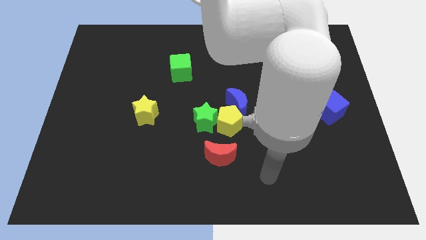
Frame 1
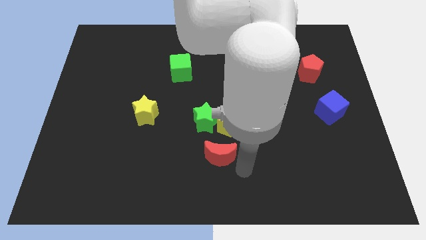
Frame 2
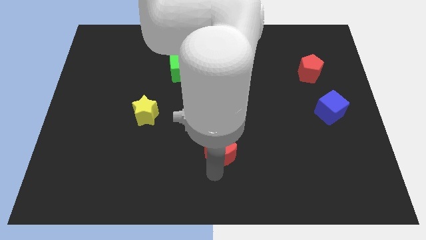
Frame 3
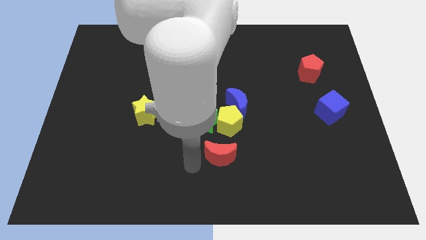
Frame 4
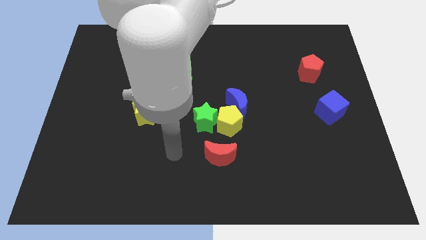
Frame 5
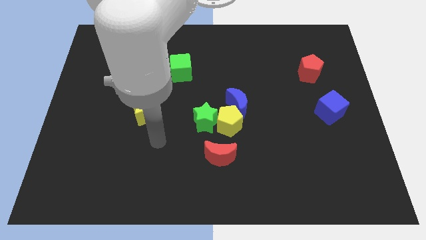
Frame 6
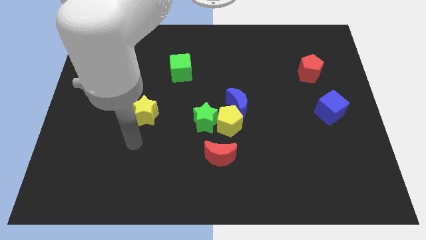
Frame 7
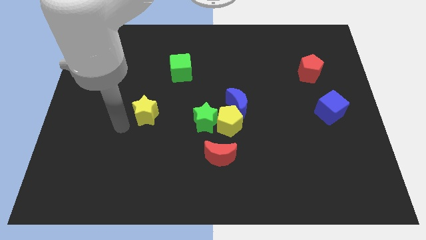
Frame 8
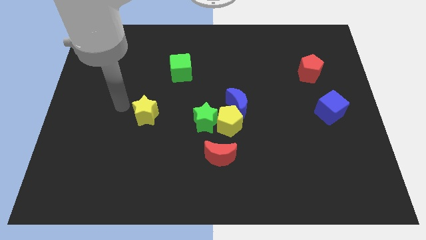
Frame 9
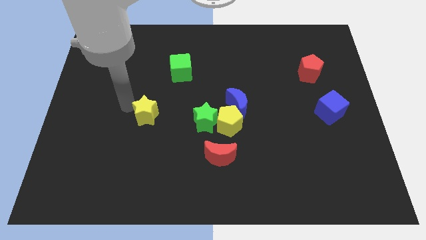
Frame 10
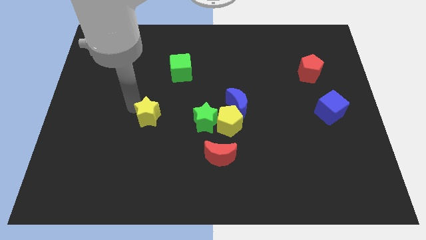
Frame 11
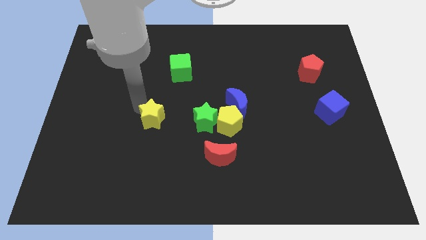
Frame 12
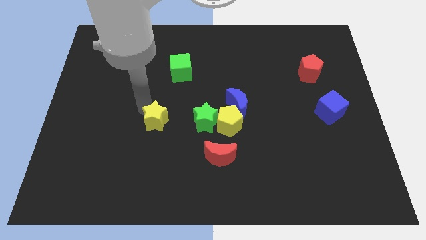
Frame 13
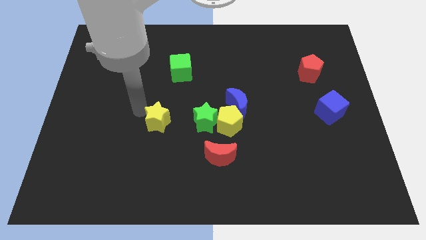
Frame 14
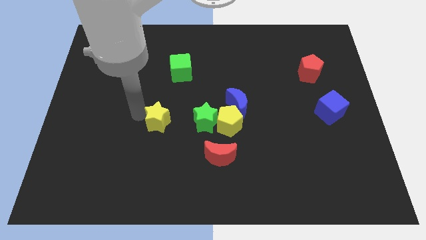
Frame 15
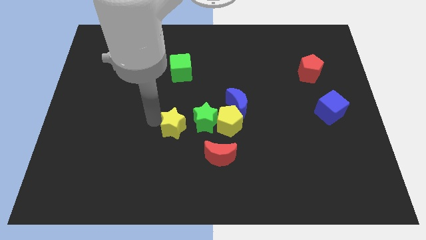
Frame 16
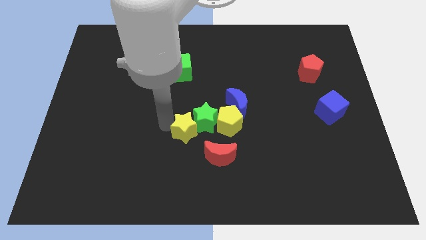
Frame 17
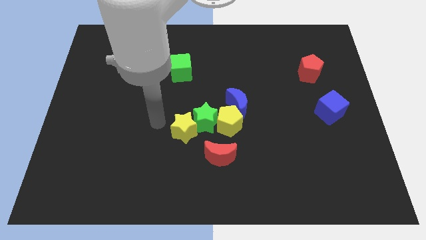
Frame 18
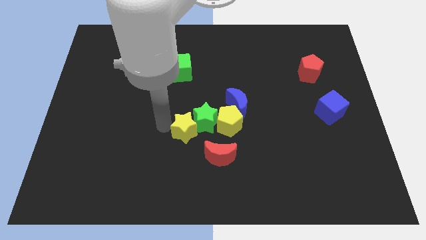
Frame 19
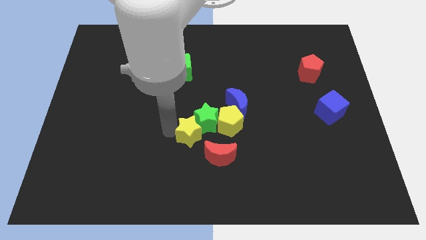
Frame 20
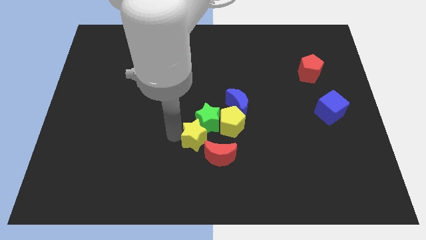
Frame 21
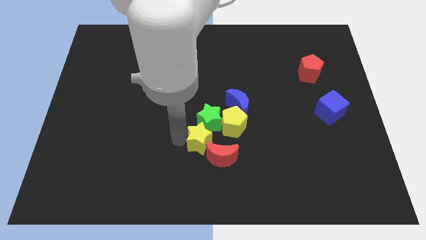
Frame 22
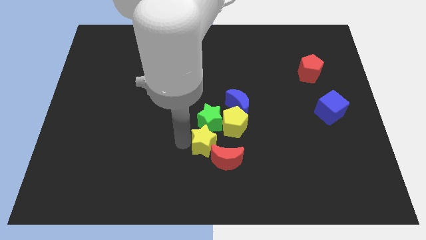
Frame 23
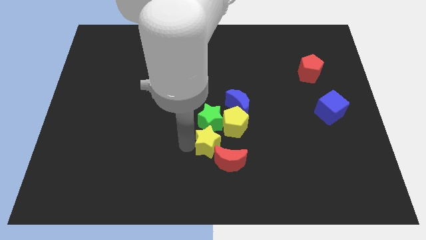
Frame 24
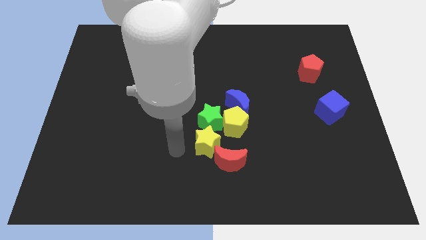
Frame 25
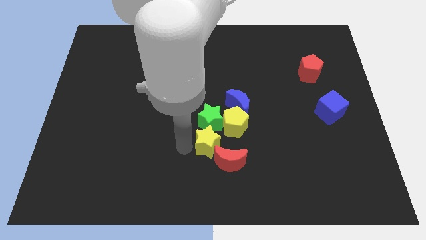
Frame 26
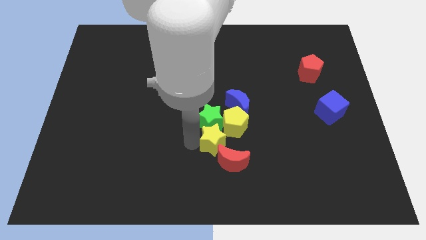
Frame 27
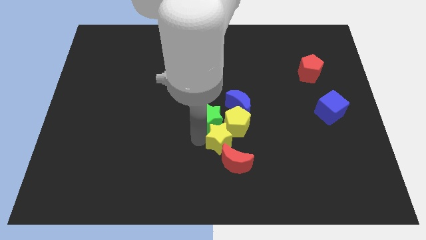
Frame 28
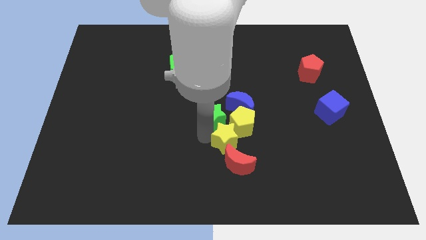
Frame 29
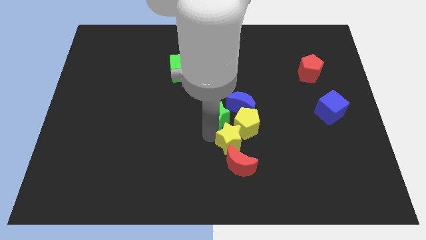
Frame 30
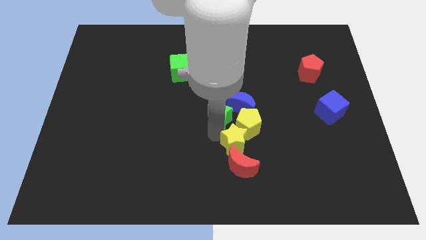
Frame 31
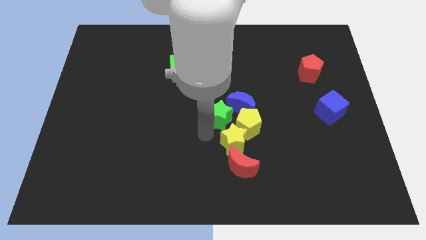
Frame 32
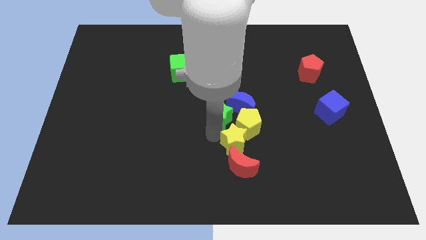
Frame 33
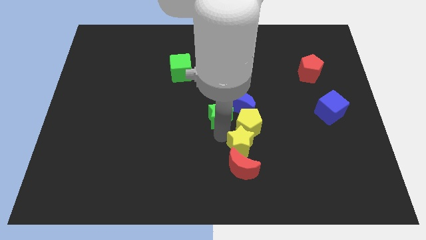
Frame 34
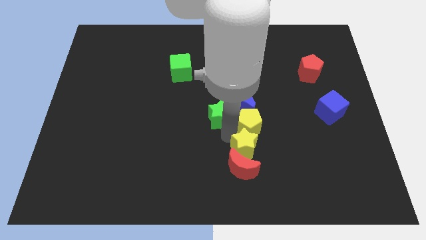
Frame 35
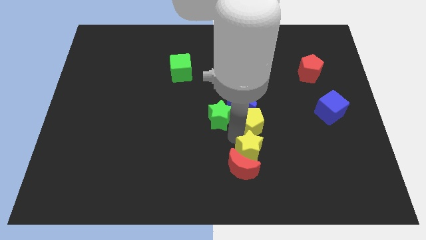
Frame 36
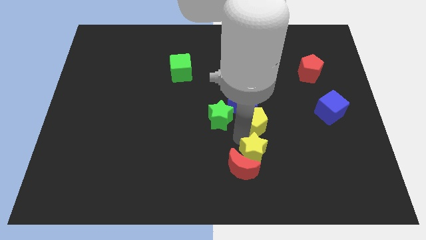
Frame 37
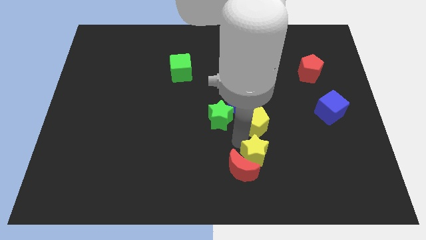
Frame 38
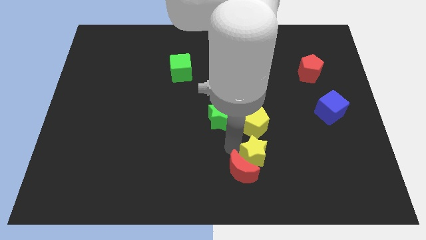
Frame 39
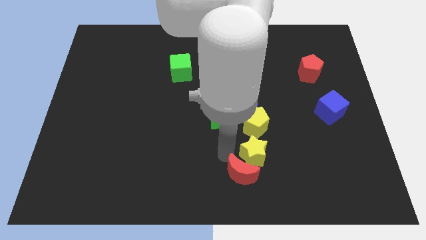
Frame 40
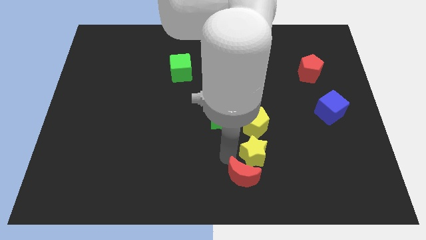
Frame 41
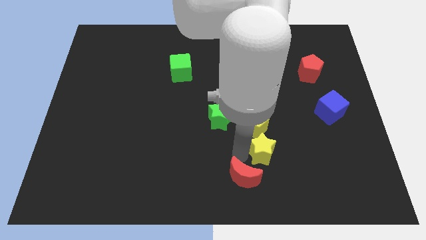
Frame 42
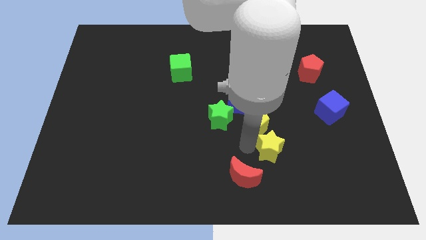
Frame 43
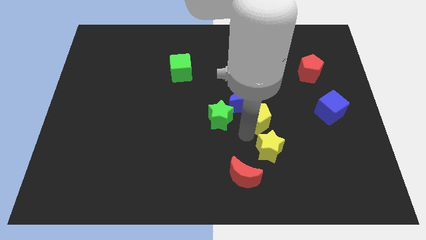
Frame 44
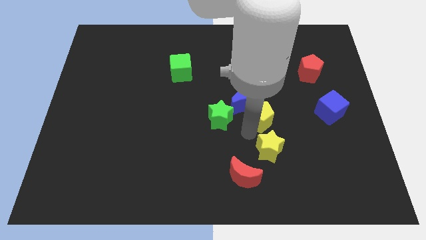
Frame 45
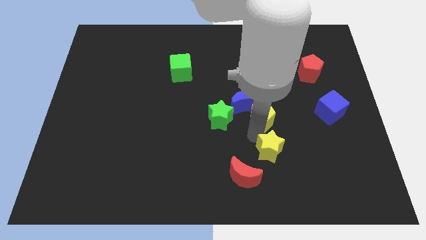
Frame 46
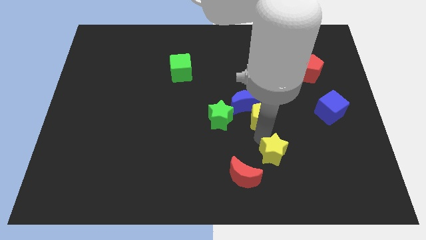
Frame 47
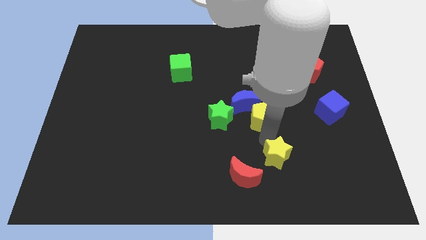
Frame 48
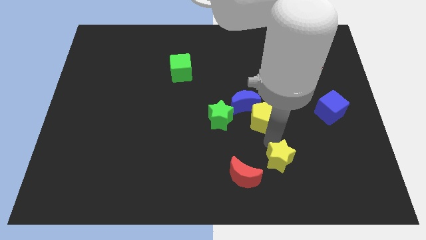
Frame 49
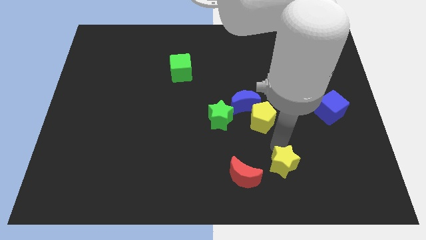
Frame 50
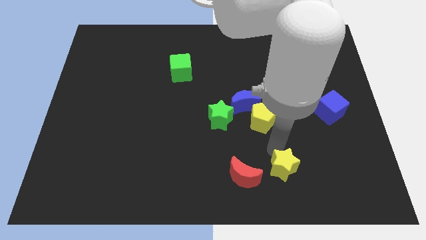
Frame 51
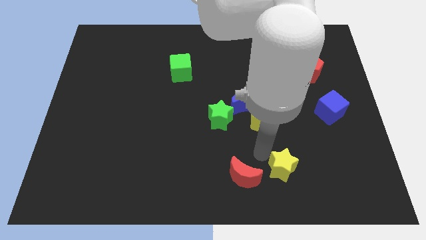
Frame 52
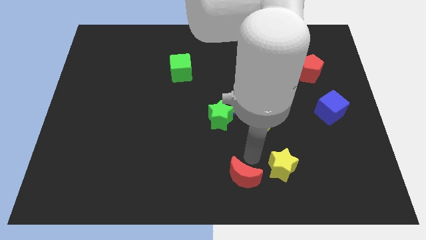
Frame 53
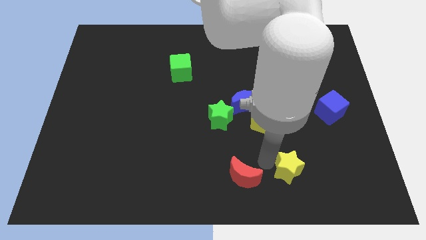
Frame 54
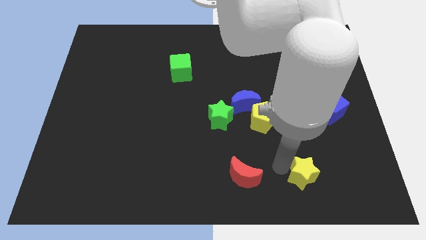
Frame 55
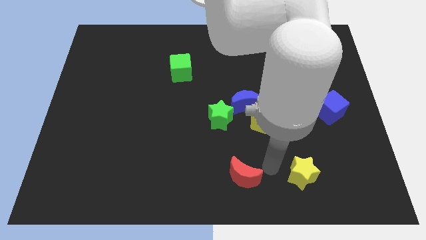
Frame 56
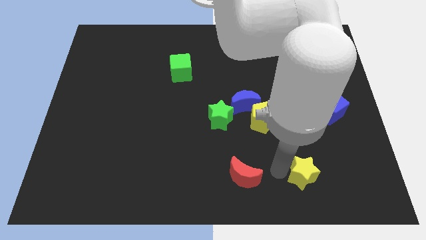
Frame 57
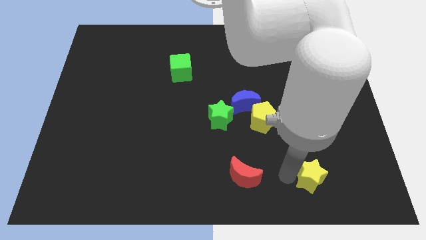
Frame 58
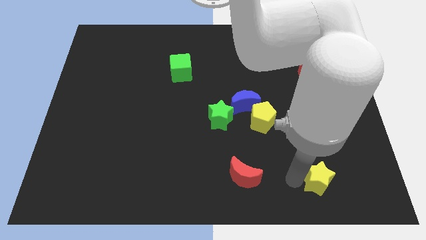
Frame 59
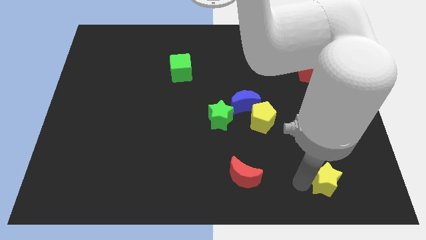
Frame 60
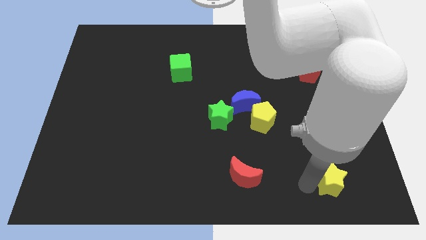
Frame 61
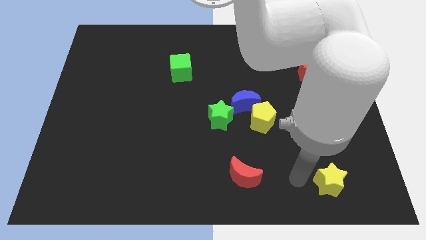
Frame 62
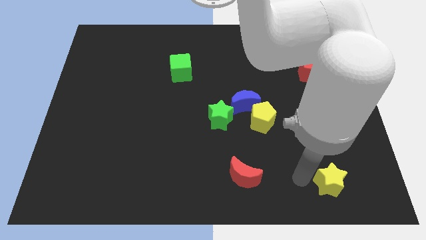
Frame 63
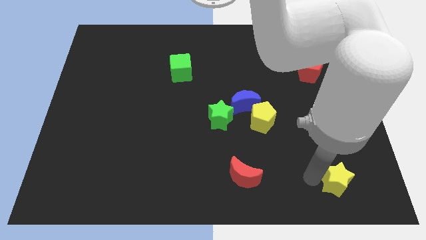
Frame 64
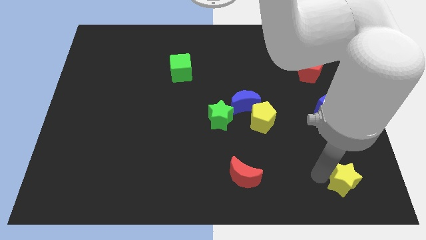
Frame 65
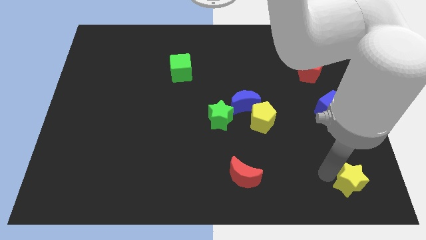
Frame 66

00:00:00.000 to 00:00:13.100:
move the yellow star to the lower right corner

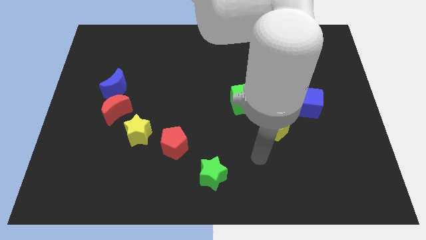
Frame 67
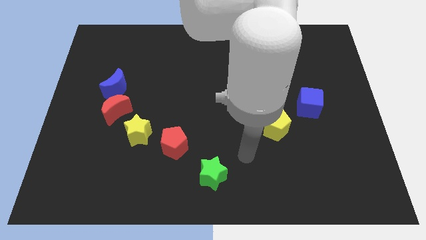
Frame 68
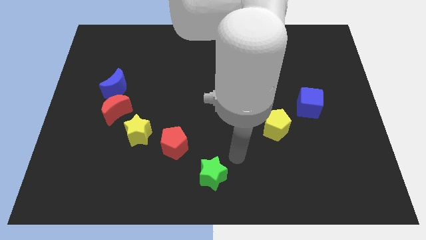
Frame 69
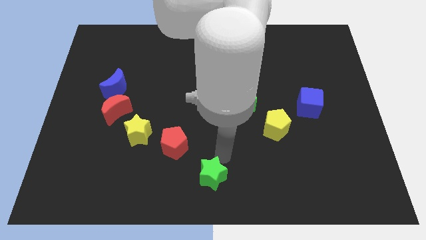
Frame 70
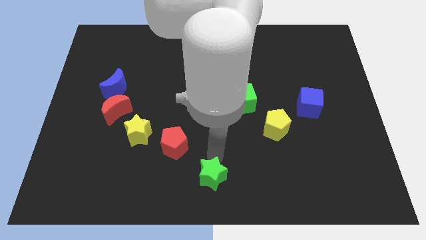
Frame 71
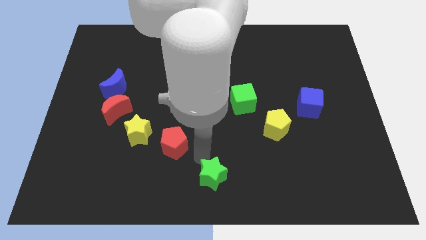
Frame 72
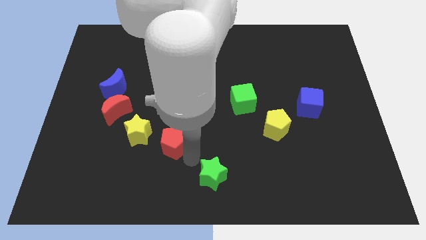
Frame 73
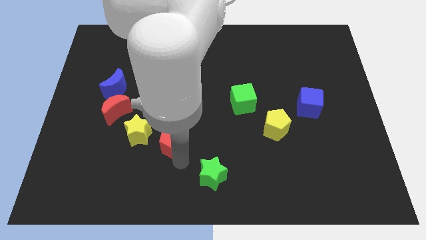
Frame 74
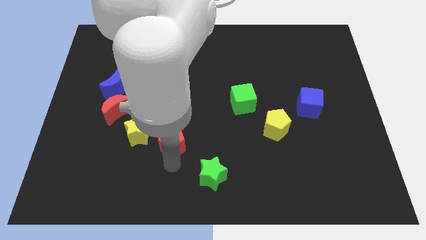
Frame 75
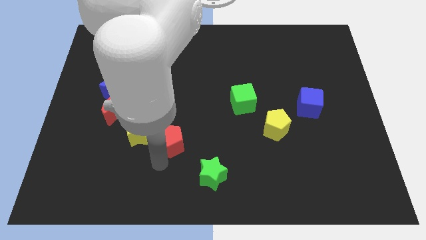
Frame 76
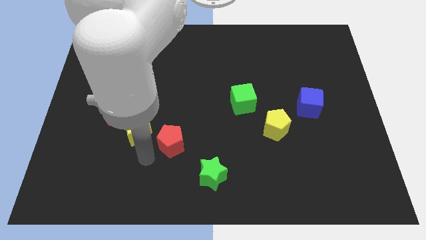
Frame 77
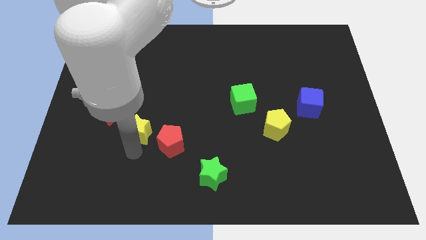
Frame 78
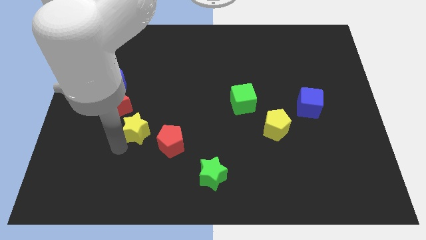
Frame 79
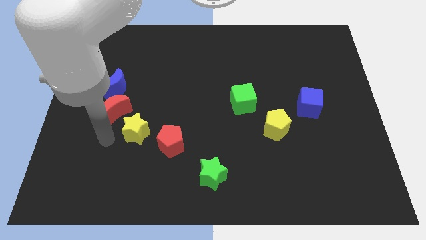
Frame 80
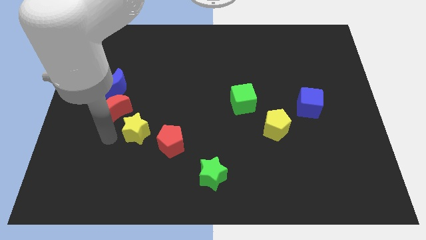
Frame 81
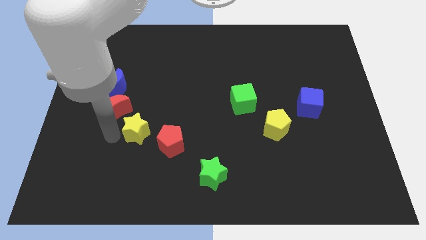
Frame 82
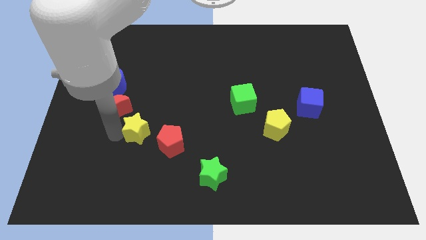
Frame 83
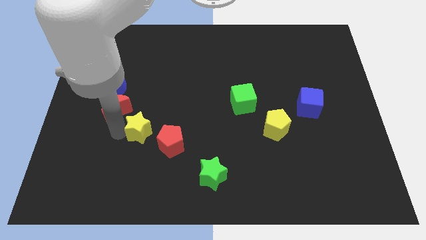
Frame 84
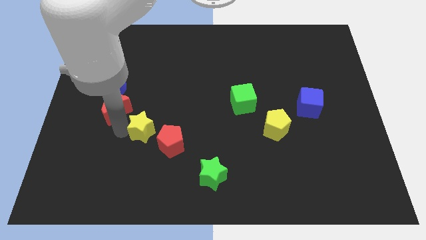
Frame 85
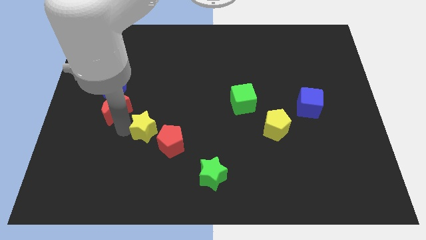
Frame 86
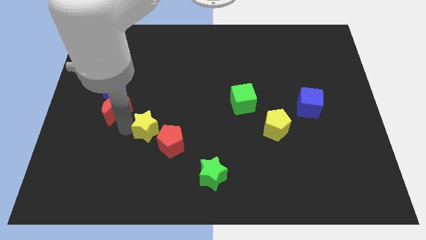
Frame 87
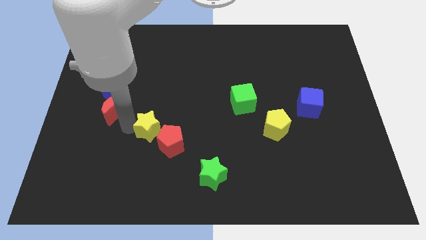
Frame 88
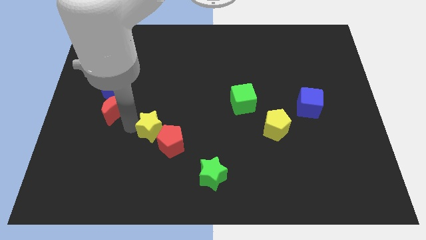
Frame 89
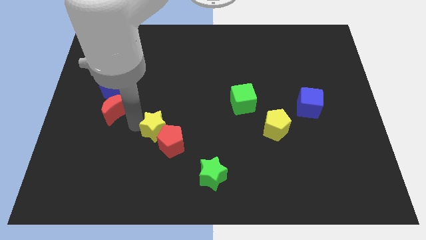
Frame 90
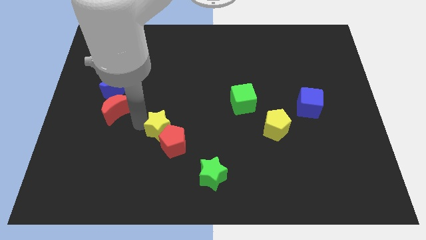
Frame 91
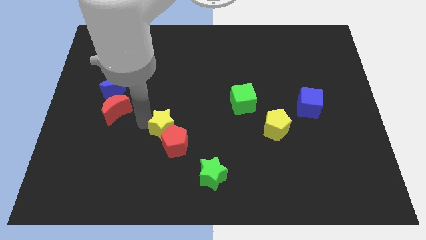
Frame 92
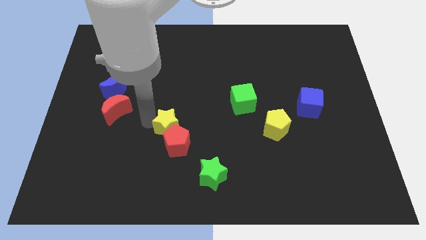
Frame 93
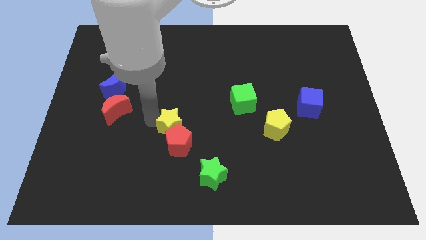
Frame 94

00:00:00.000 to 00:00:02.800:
move the yellow star to the middle of the board
